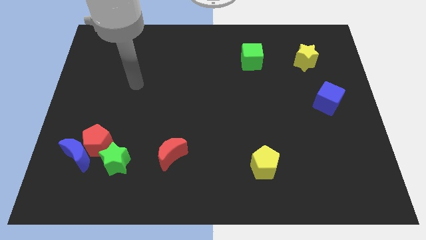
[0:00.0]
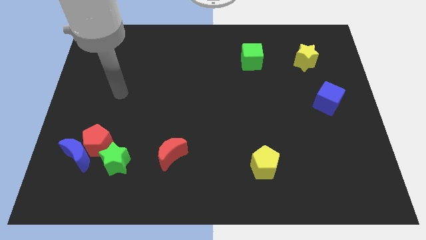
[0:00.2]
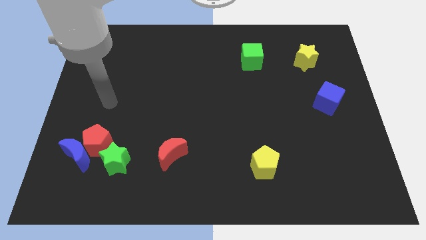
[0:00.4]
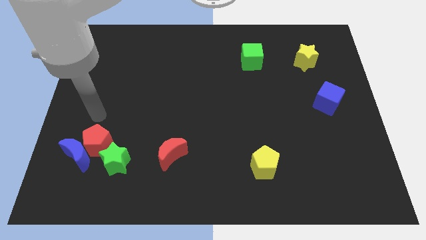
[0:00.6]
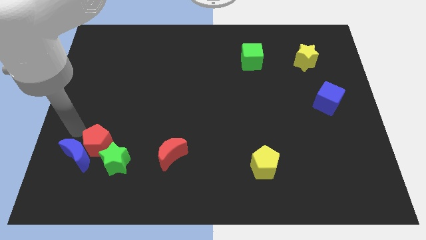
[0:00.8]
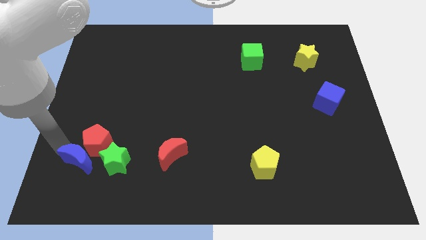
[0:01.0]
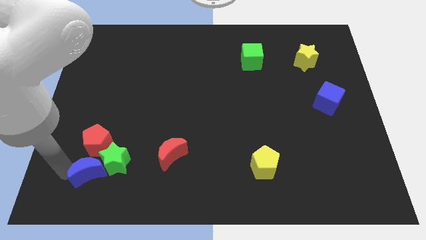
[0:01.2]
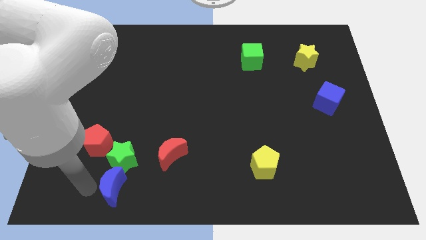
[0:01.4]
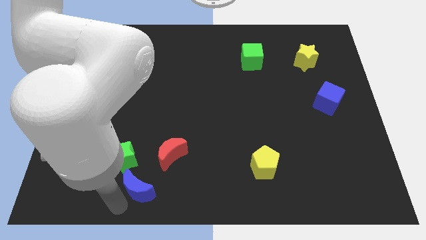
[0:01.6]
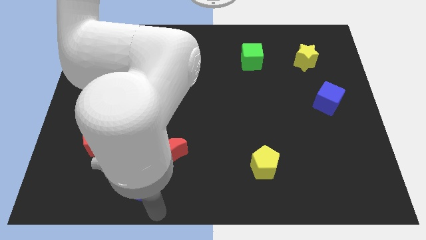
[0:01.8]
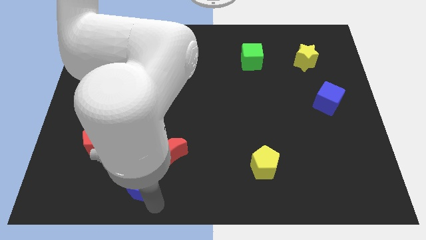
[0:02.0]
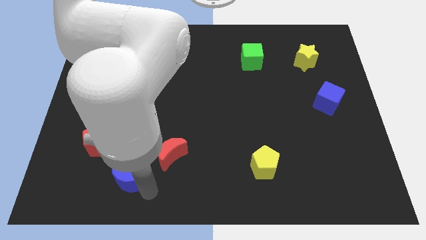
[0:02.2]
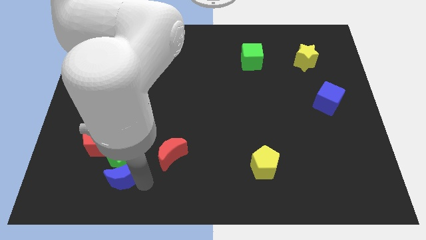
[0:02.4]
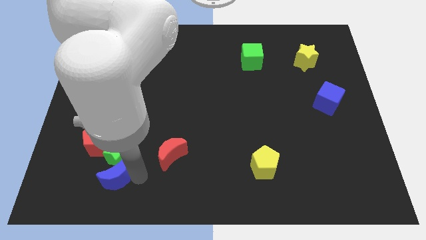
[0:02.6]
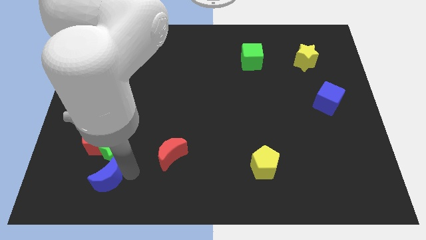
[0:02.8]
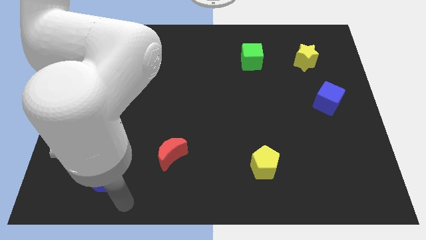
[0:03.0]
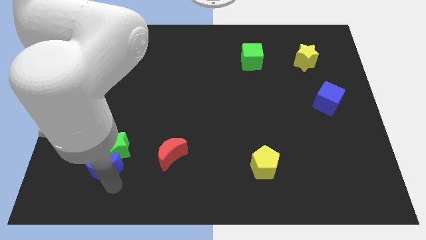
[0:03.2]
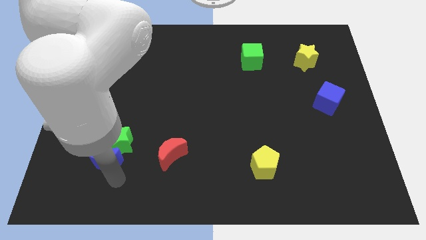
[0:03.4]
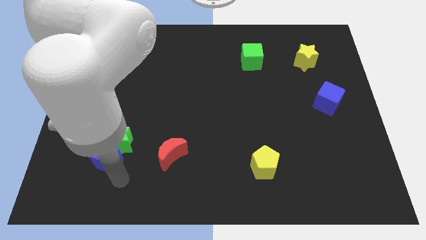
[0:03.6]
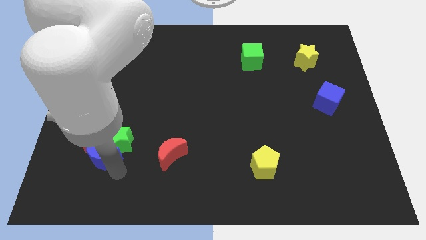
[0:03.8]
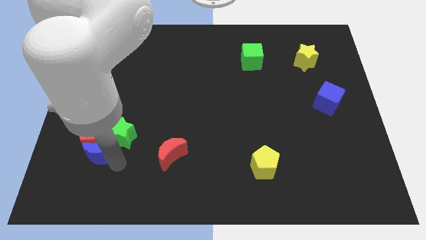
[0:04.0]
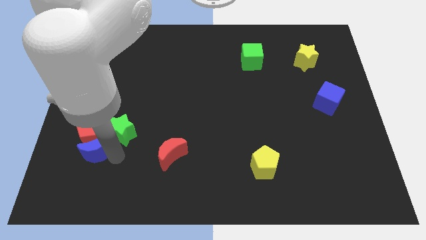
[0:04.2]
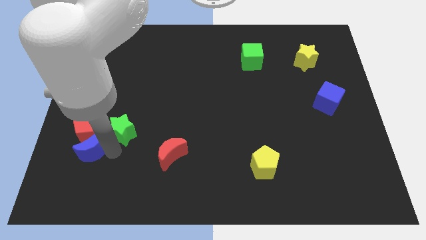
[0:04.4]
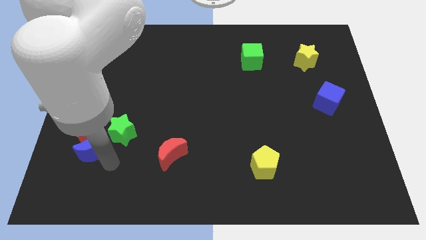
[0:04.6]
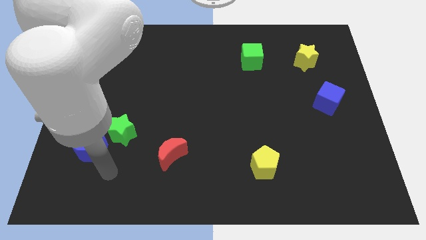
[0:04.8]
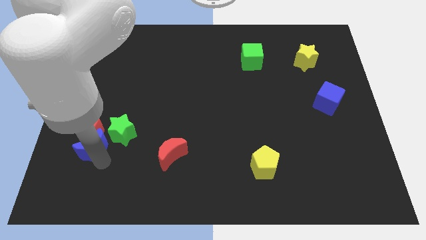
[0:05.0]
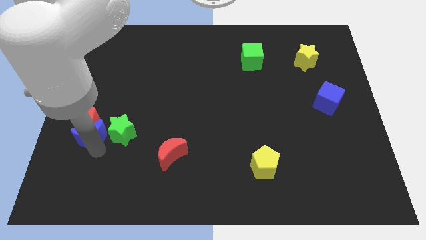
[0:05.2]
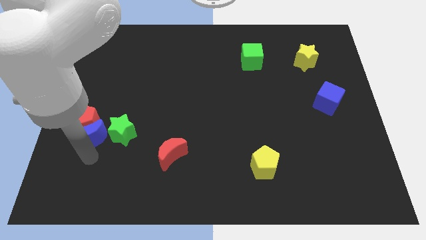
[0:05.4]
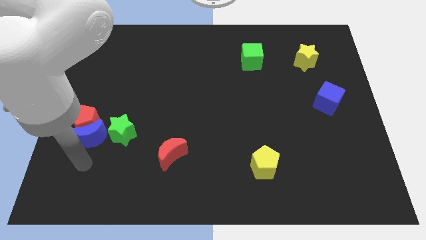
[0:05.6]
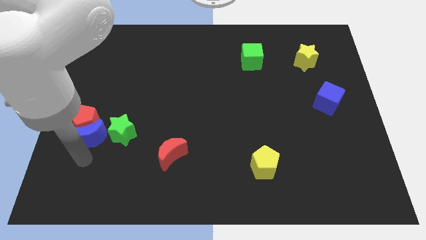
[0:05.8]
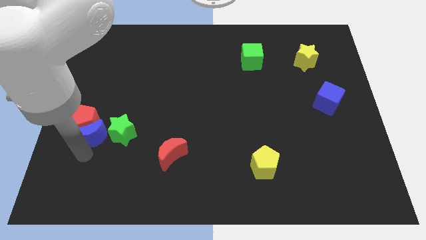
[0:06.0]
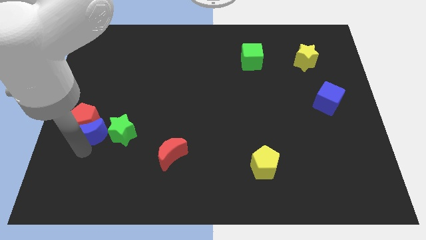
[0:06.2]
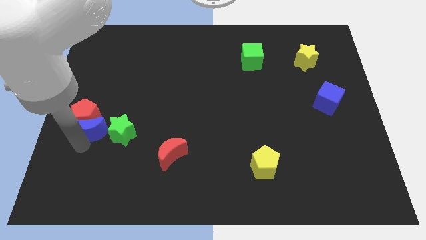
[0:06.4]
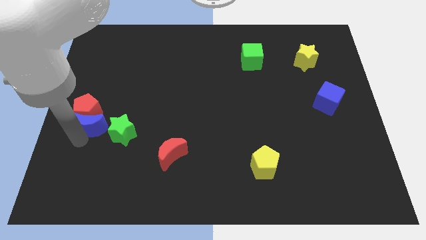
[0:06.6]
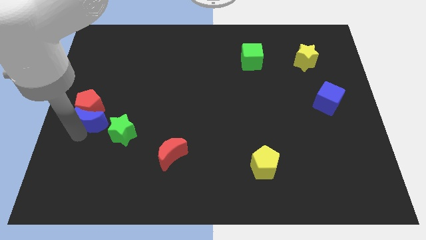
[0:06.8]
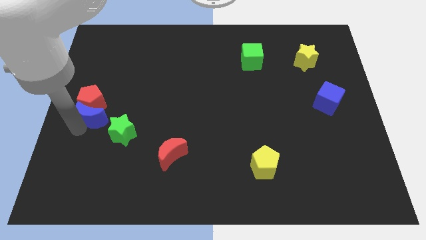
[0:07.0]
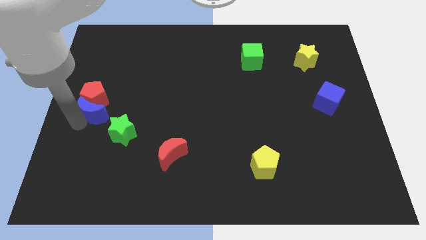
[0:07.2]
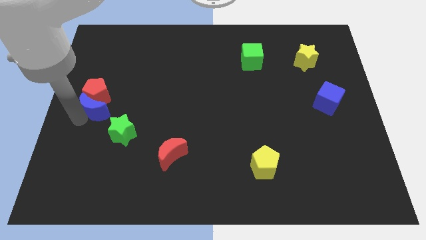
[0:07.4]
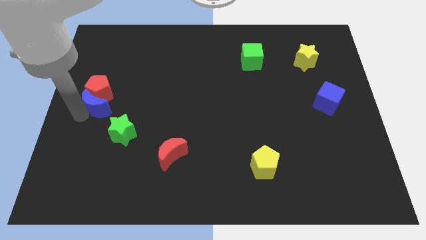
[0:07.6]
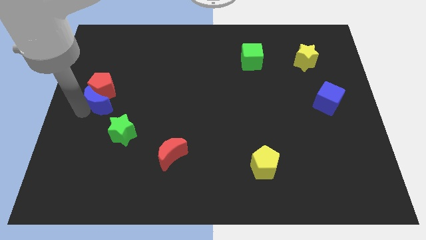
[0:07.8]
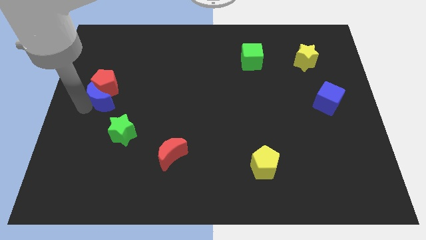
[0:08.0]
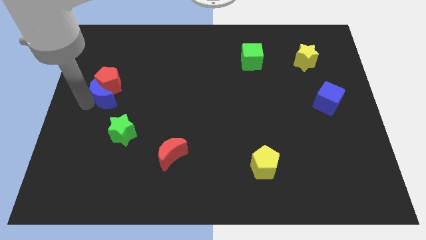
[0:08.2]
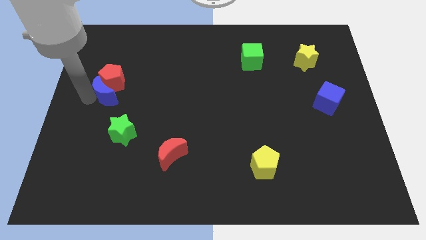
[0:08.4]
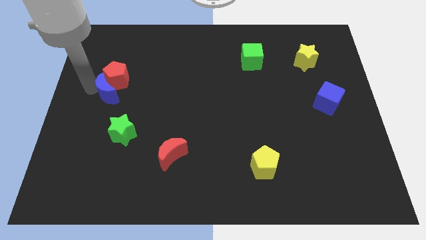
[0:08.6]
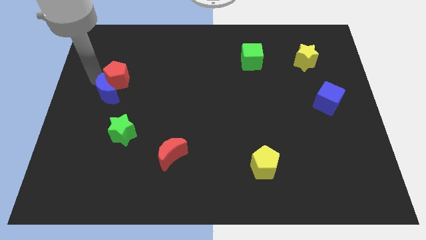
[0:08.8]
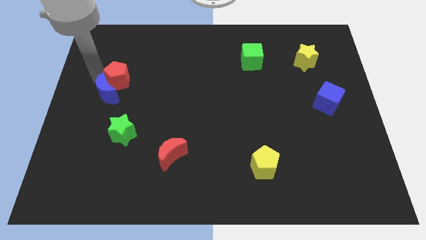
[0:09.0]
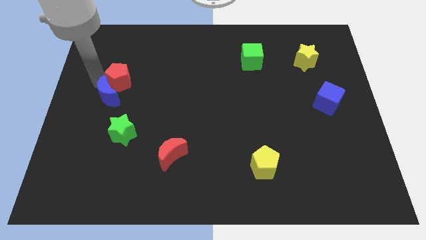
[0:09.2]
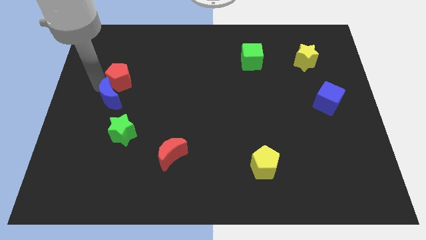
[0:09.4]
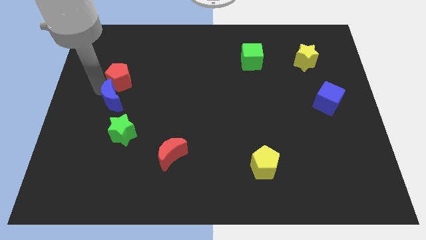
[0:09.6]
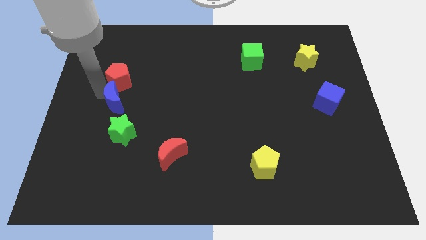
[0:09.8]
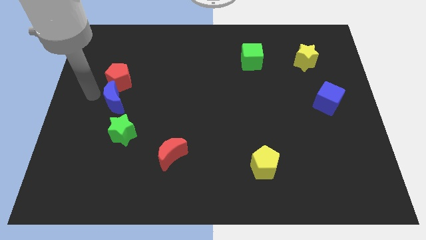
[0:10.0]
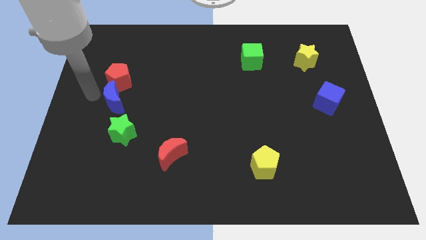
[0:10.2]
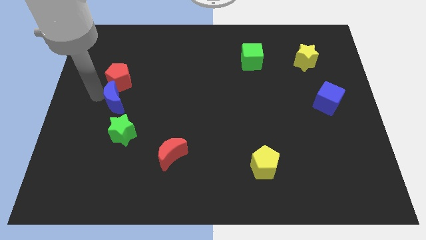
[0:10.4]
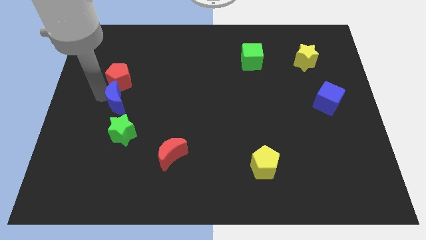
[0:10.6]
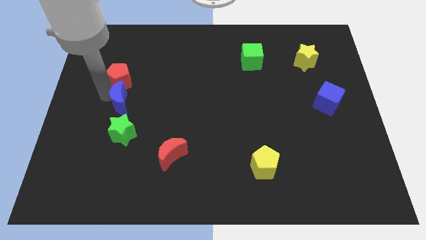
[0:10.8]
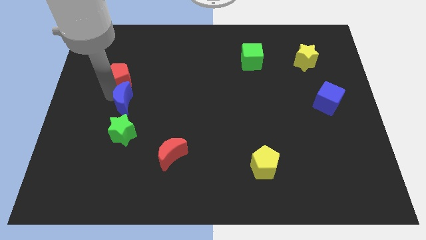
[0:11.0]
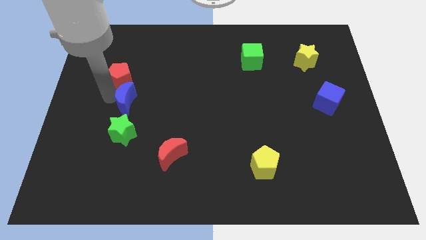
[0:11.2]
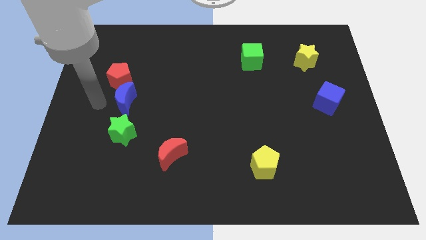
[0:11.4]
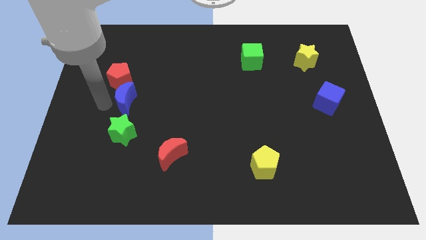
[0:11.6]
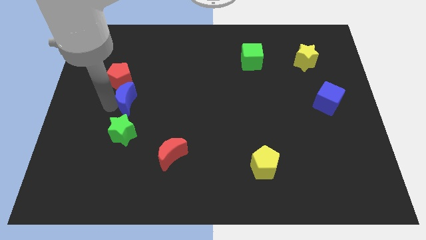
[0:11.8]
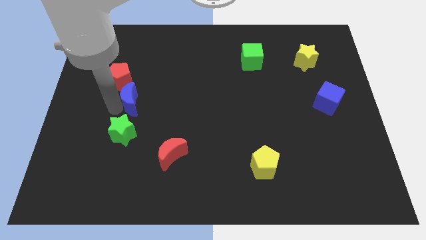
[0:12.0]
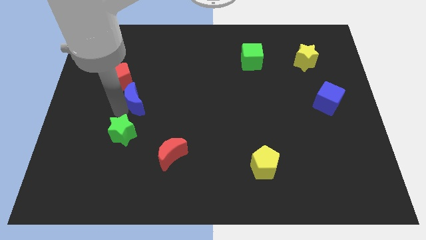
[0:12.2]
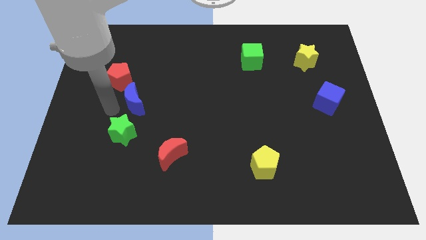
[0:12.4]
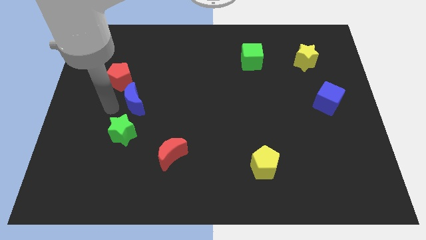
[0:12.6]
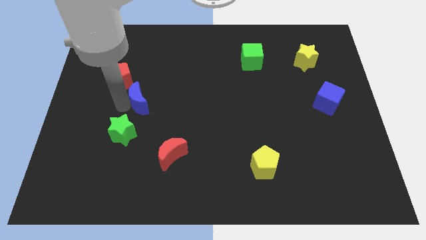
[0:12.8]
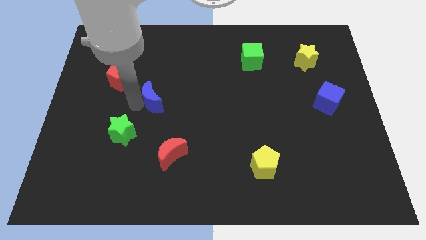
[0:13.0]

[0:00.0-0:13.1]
push the blue moon upwards and then to the right

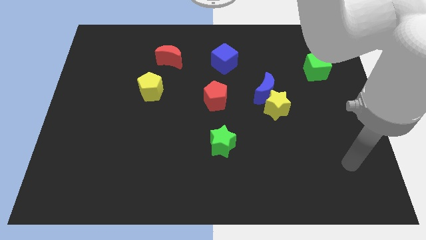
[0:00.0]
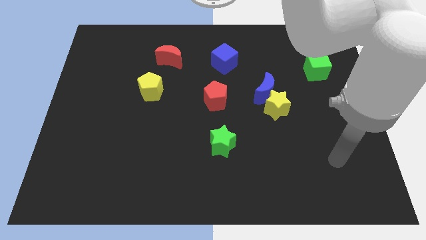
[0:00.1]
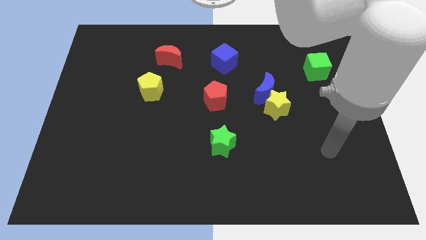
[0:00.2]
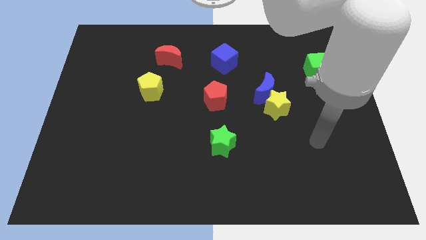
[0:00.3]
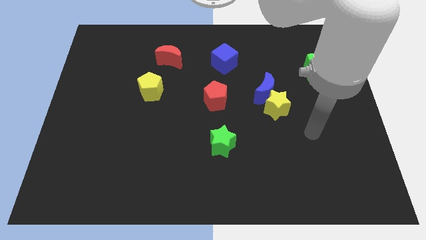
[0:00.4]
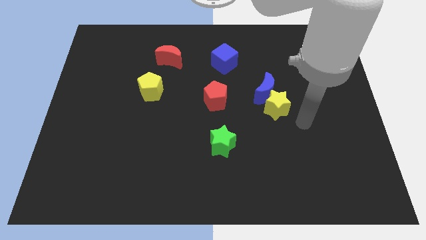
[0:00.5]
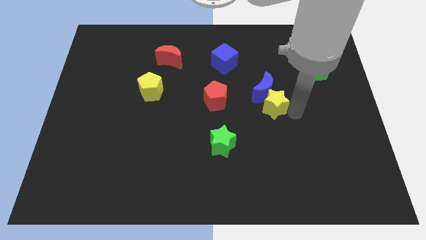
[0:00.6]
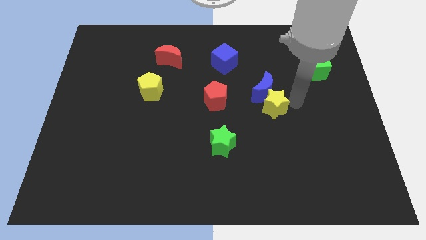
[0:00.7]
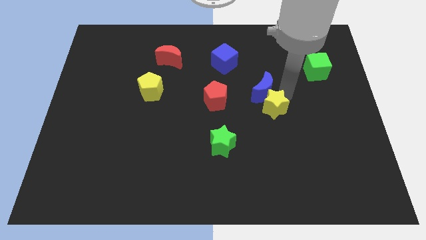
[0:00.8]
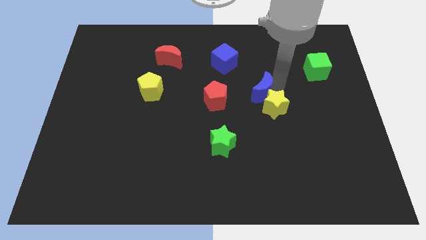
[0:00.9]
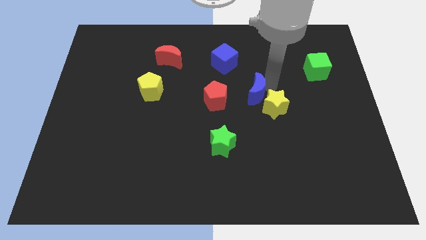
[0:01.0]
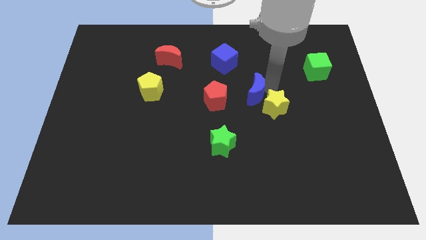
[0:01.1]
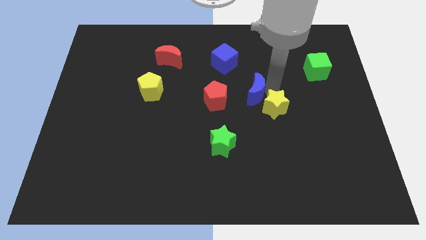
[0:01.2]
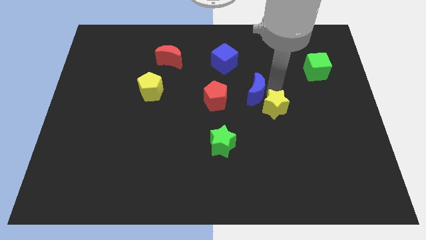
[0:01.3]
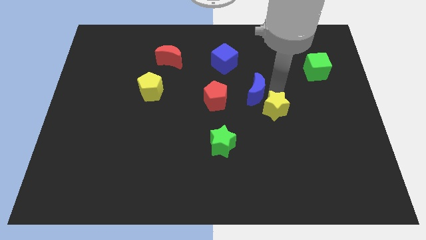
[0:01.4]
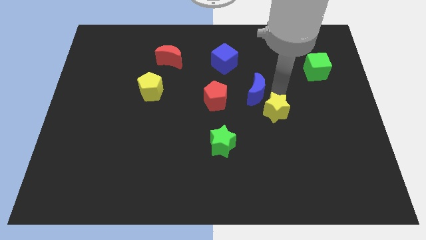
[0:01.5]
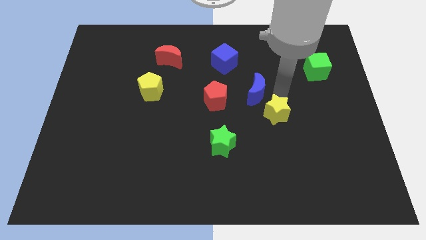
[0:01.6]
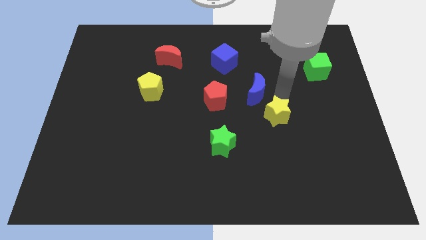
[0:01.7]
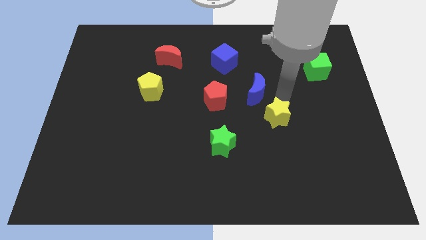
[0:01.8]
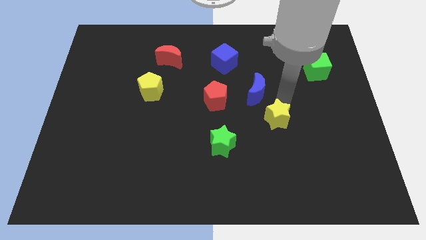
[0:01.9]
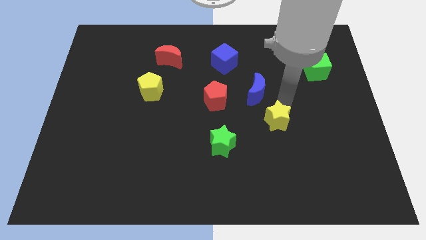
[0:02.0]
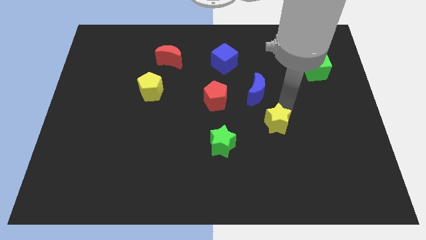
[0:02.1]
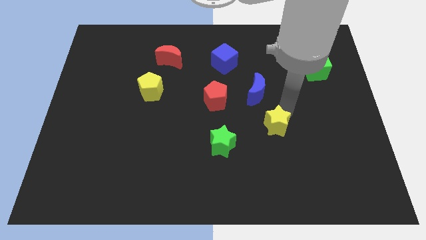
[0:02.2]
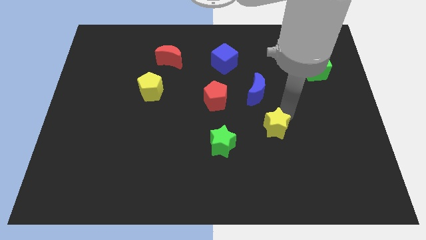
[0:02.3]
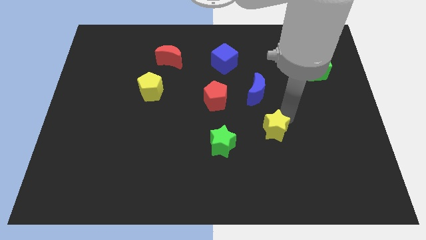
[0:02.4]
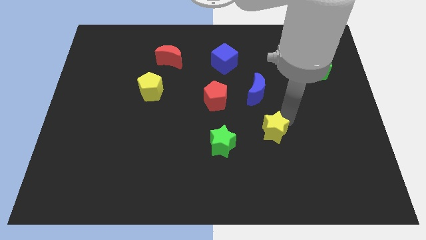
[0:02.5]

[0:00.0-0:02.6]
slightly slide the yellow star downwards
